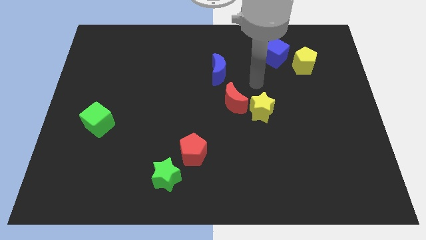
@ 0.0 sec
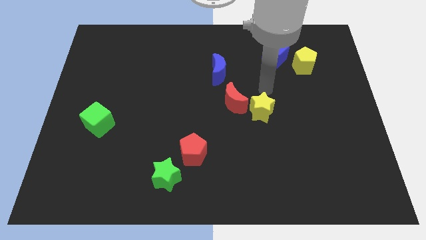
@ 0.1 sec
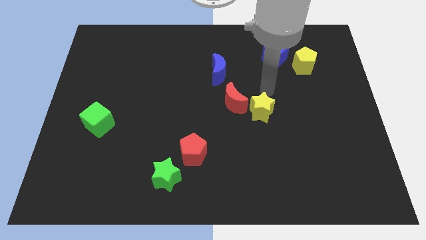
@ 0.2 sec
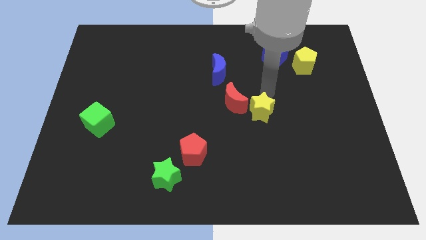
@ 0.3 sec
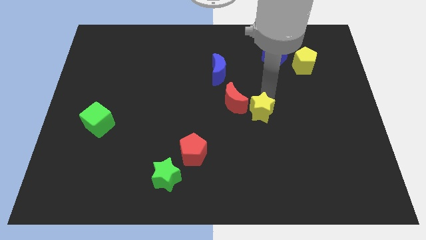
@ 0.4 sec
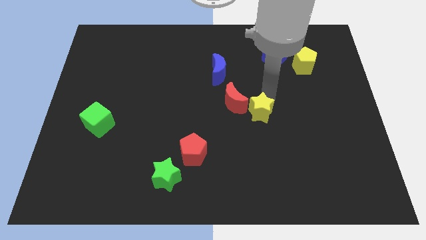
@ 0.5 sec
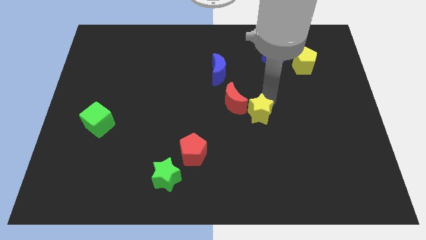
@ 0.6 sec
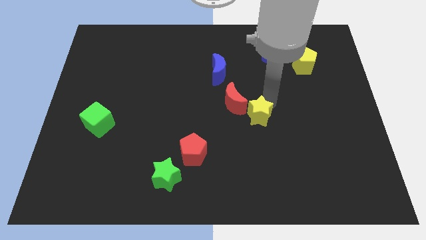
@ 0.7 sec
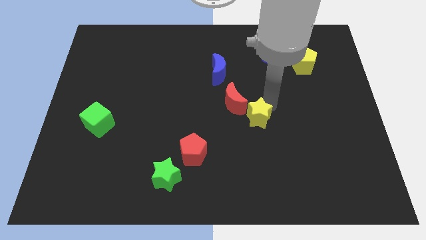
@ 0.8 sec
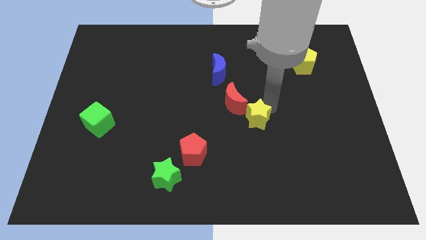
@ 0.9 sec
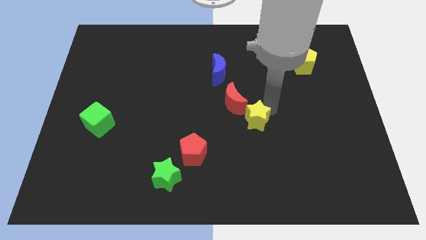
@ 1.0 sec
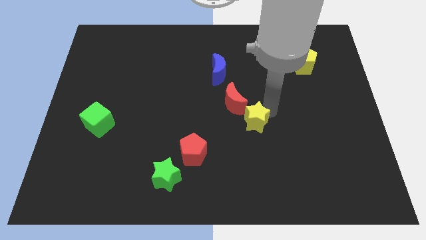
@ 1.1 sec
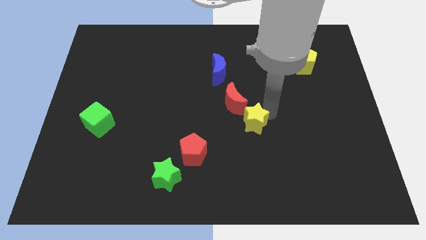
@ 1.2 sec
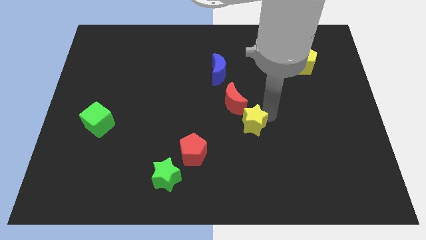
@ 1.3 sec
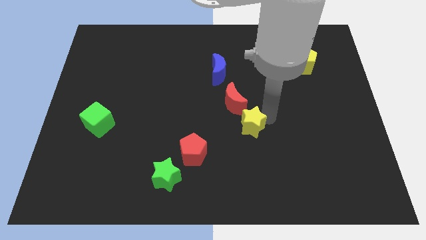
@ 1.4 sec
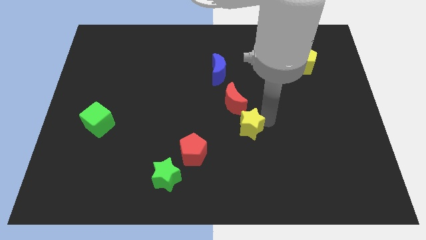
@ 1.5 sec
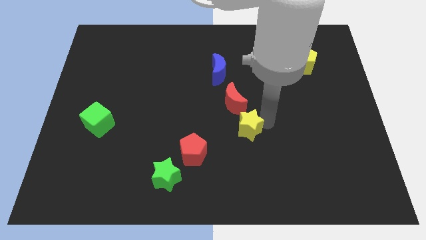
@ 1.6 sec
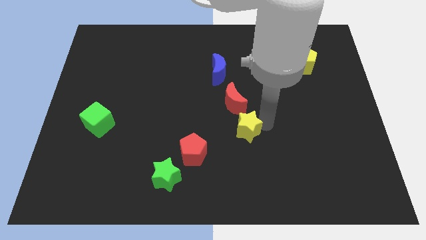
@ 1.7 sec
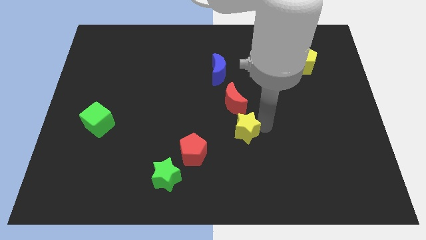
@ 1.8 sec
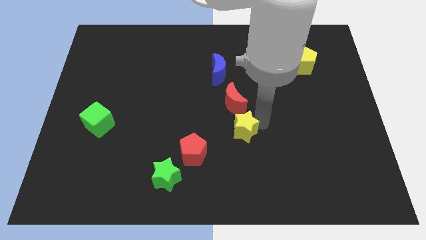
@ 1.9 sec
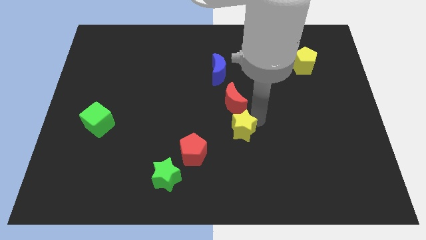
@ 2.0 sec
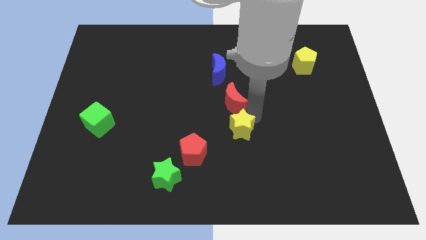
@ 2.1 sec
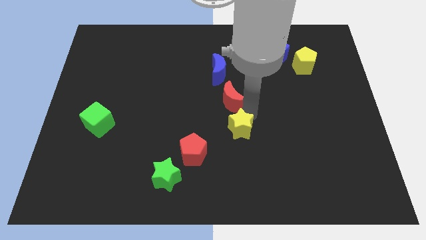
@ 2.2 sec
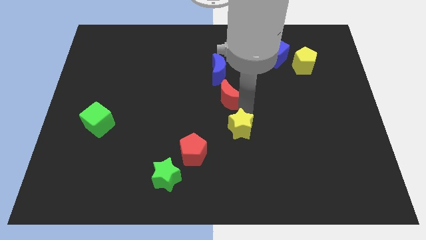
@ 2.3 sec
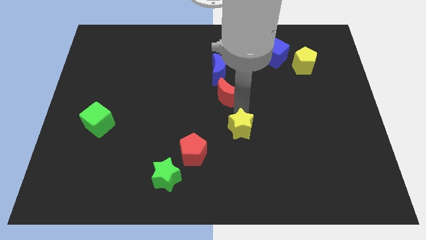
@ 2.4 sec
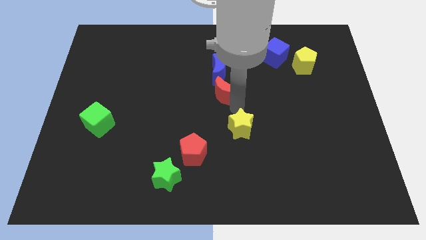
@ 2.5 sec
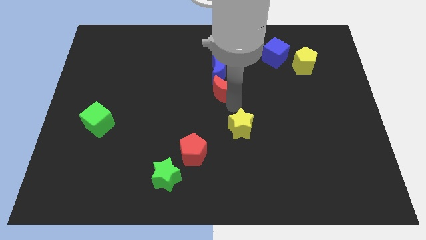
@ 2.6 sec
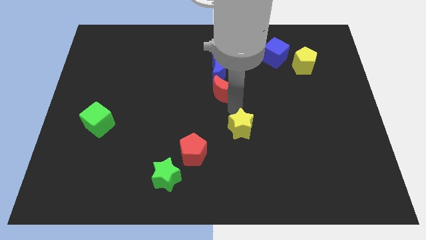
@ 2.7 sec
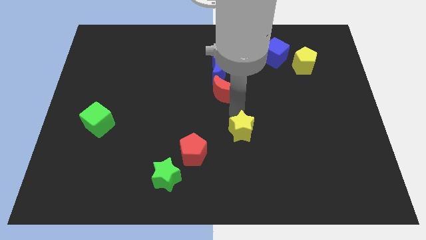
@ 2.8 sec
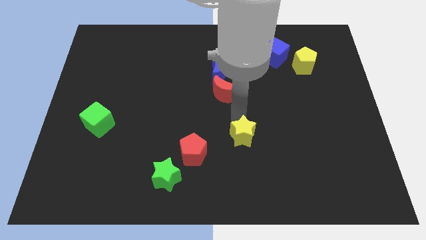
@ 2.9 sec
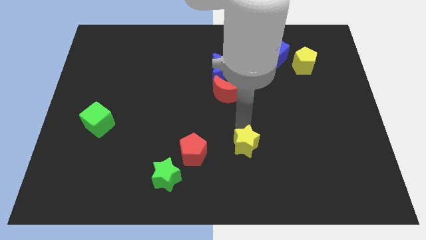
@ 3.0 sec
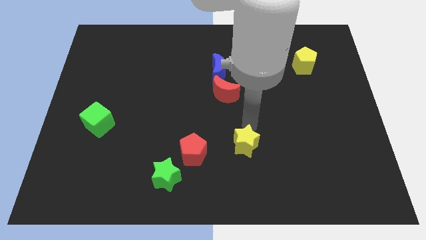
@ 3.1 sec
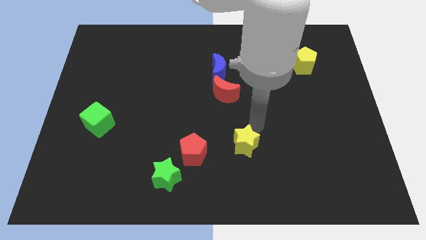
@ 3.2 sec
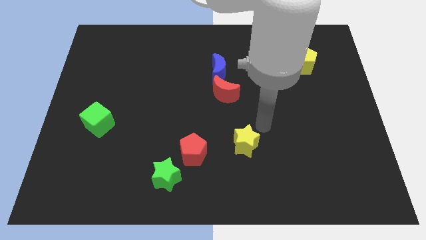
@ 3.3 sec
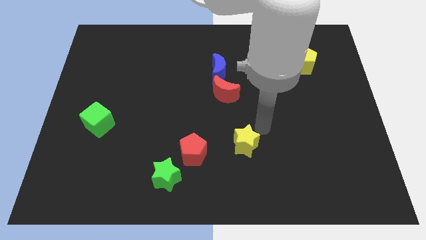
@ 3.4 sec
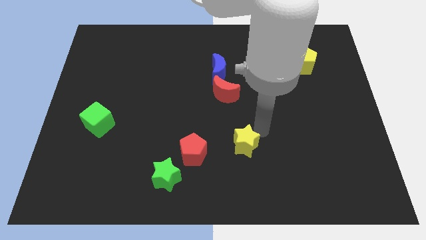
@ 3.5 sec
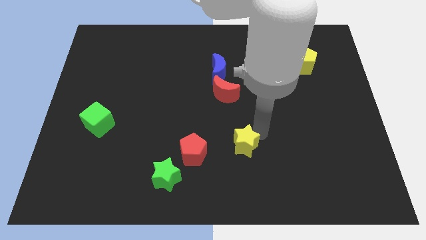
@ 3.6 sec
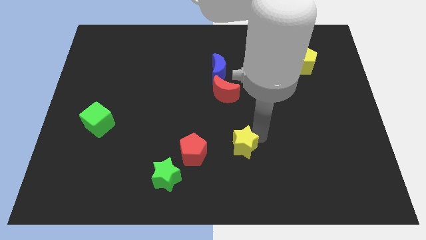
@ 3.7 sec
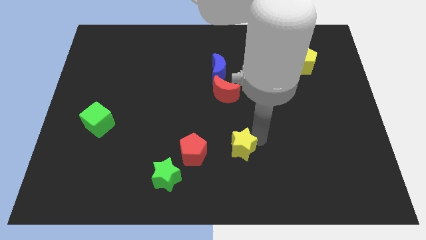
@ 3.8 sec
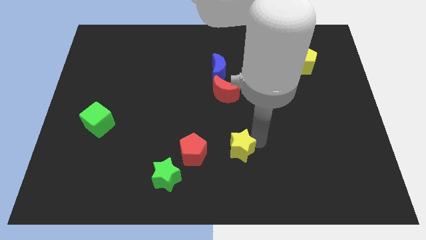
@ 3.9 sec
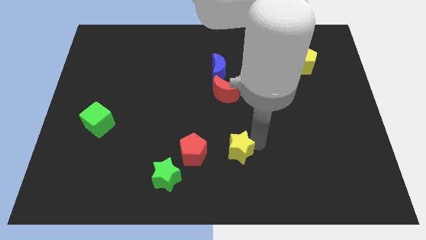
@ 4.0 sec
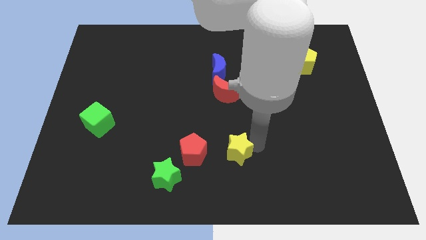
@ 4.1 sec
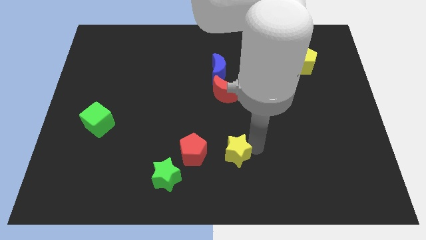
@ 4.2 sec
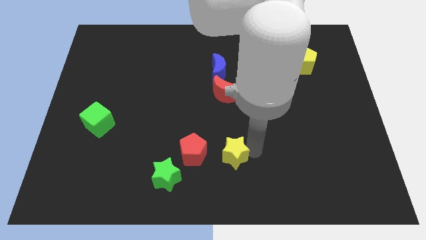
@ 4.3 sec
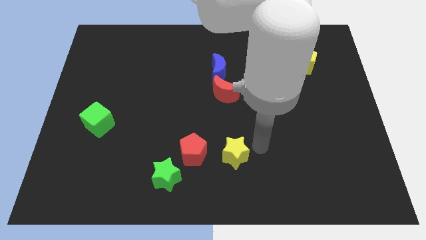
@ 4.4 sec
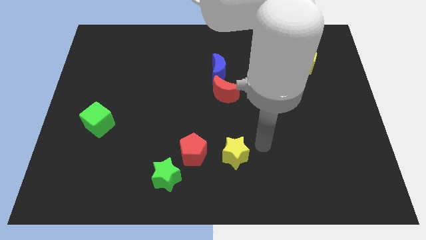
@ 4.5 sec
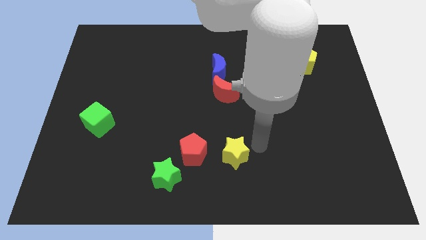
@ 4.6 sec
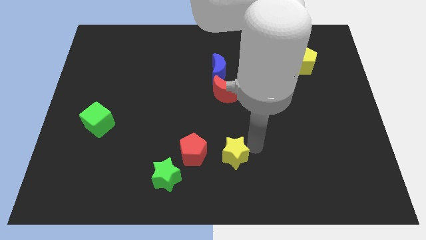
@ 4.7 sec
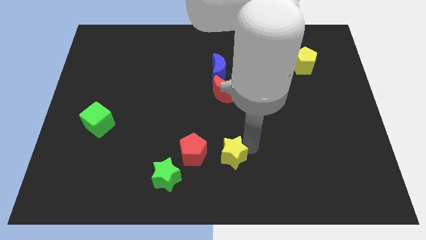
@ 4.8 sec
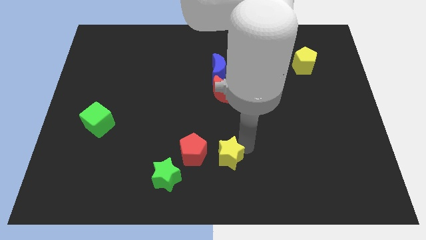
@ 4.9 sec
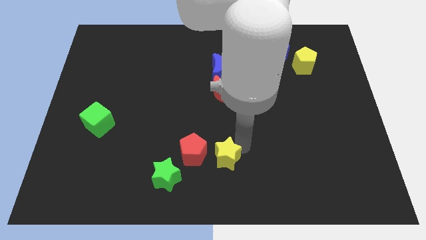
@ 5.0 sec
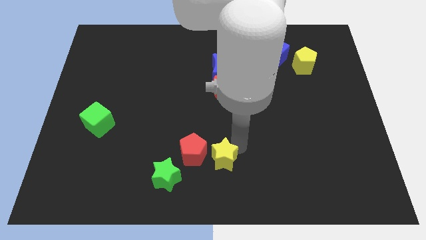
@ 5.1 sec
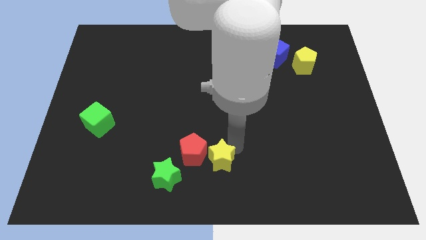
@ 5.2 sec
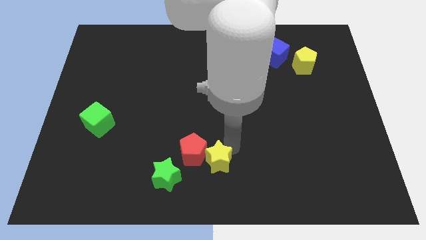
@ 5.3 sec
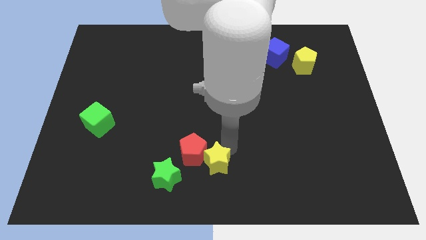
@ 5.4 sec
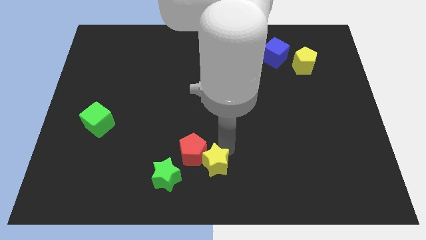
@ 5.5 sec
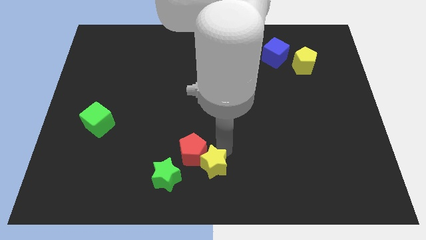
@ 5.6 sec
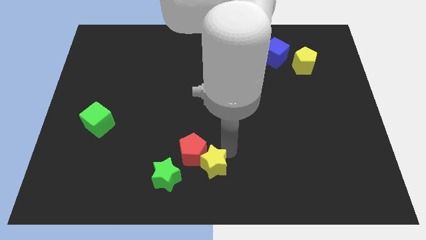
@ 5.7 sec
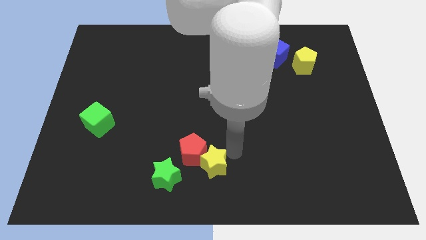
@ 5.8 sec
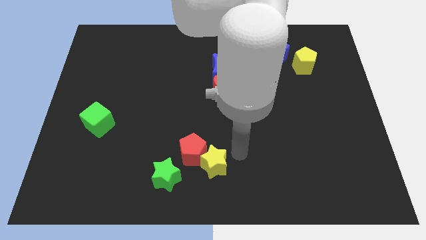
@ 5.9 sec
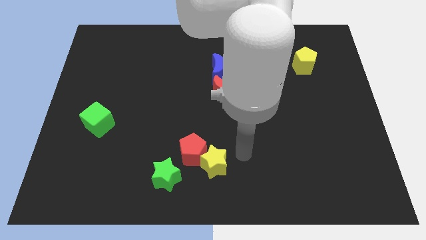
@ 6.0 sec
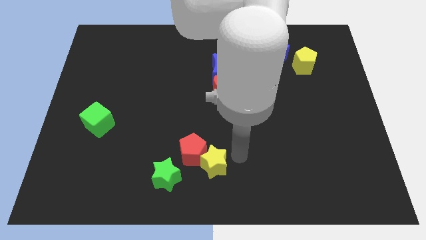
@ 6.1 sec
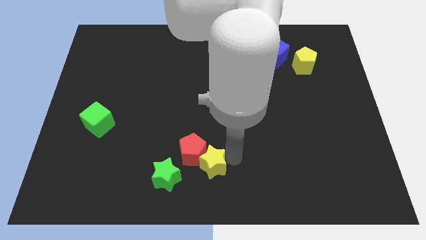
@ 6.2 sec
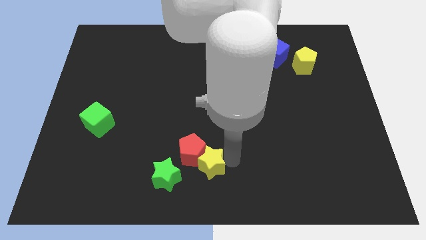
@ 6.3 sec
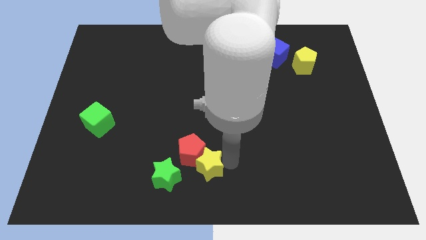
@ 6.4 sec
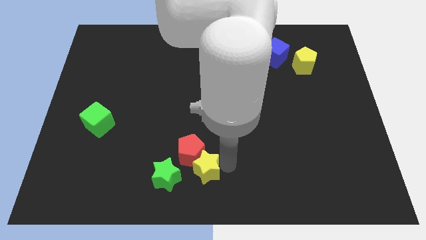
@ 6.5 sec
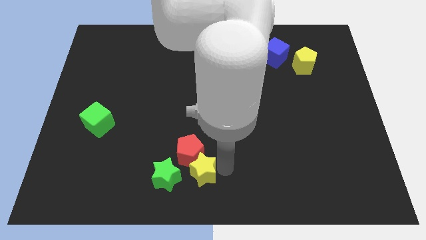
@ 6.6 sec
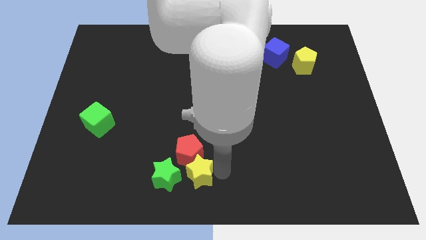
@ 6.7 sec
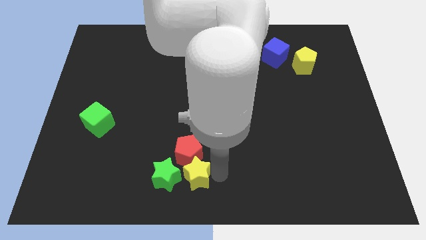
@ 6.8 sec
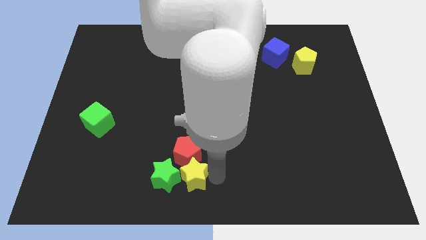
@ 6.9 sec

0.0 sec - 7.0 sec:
push the yellow star close to the green star
